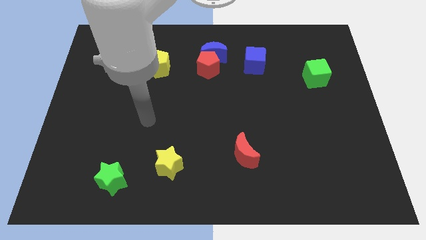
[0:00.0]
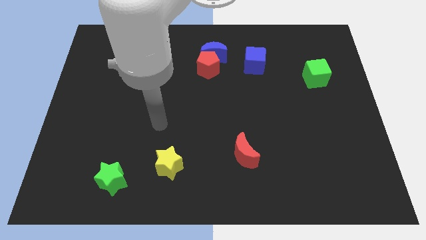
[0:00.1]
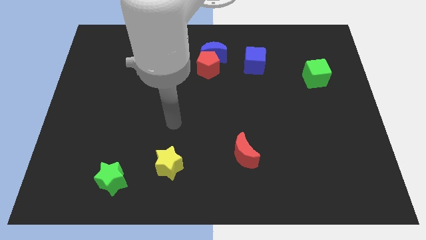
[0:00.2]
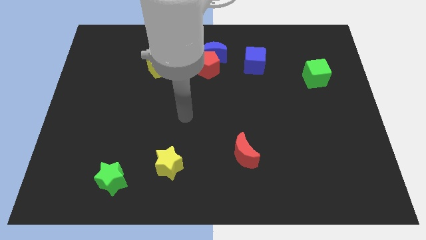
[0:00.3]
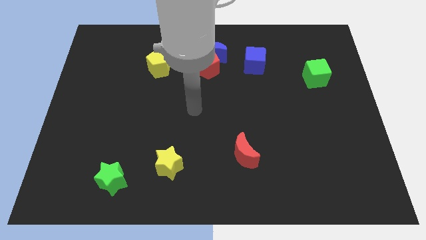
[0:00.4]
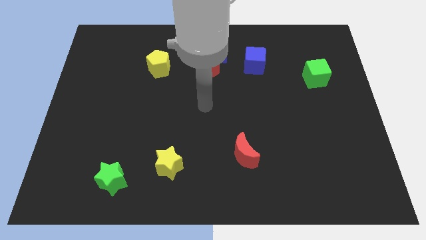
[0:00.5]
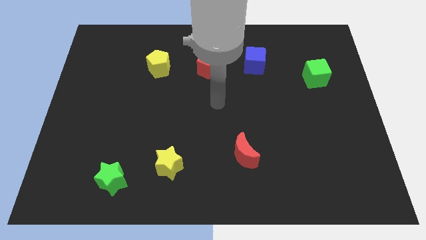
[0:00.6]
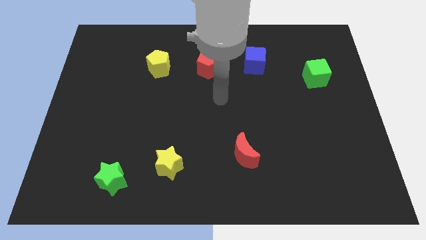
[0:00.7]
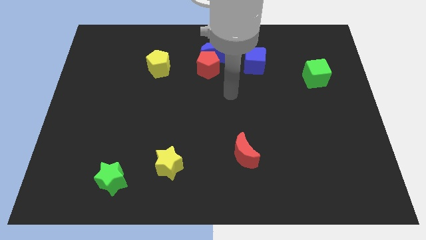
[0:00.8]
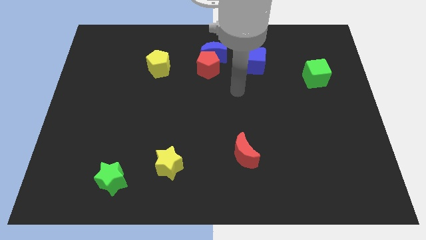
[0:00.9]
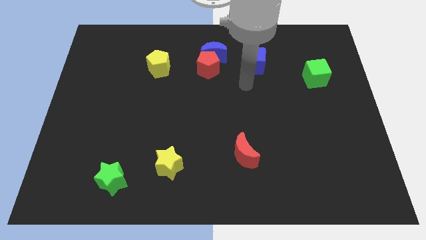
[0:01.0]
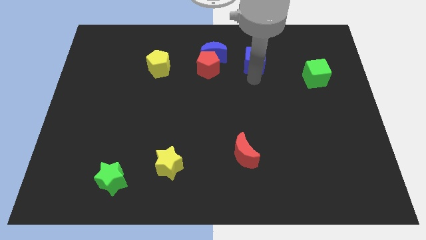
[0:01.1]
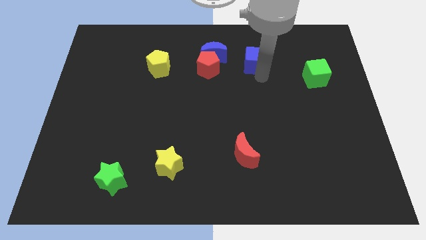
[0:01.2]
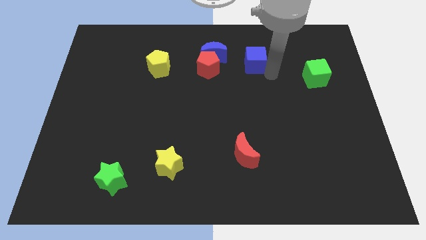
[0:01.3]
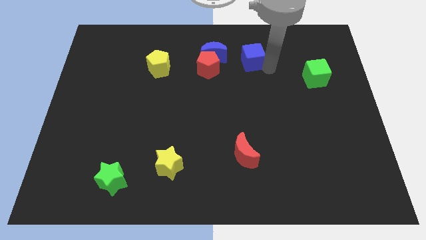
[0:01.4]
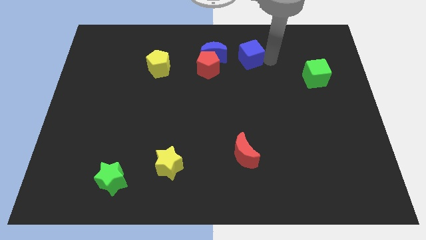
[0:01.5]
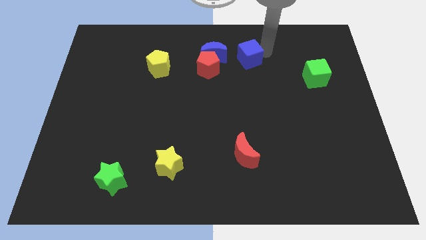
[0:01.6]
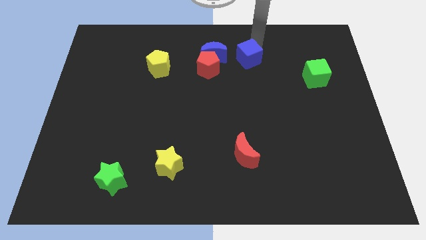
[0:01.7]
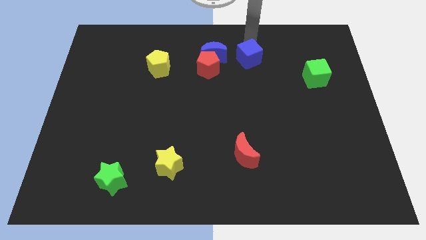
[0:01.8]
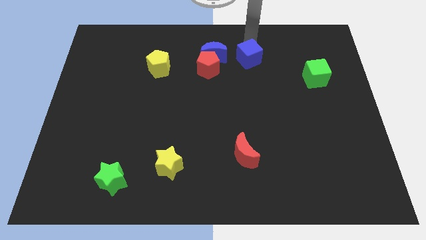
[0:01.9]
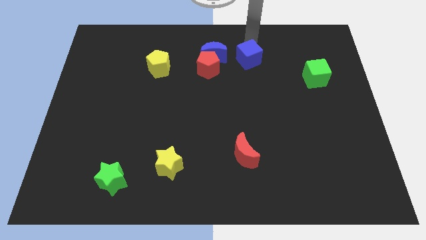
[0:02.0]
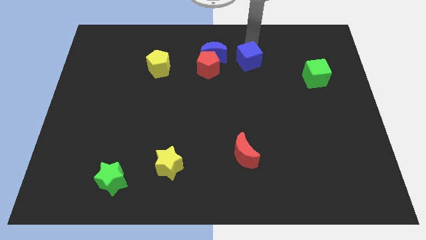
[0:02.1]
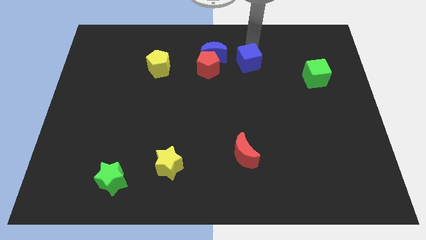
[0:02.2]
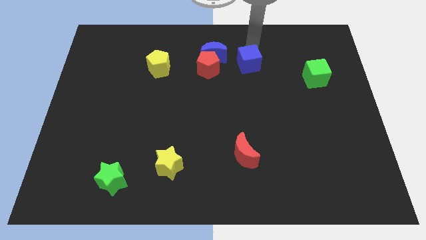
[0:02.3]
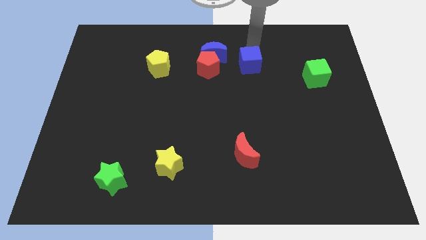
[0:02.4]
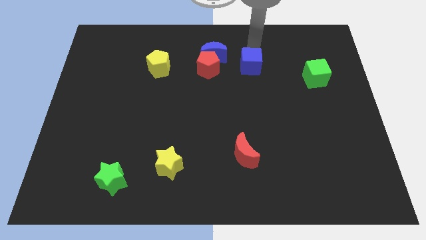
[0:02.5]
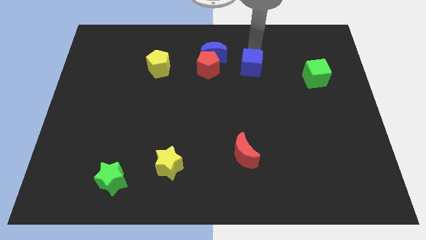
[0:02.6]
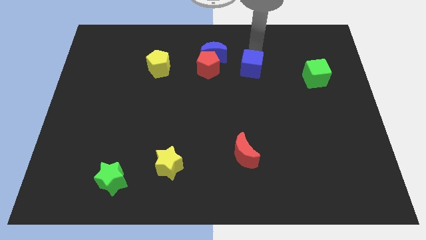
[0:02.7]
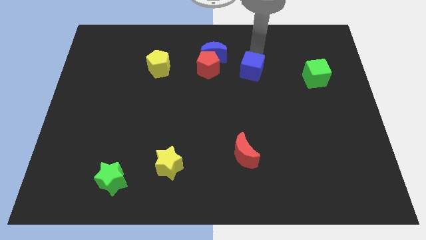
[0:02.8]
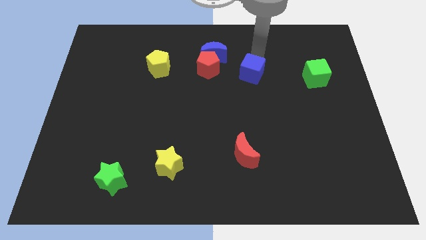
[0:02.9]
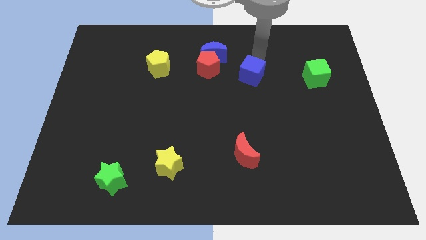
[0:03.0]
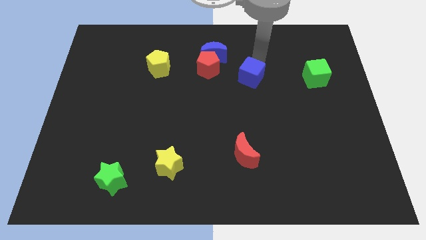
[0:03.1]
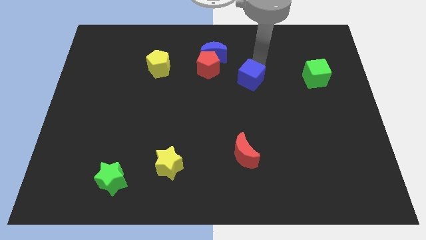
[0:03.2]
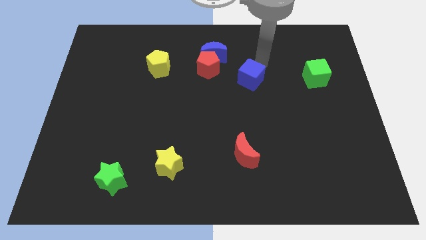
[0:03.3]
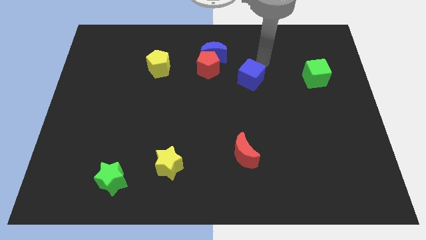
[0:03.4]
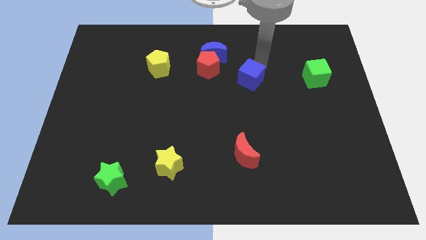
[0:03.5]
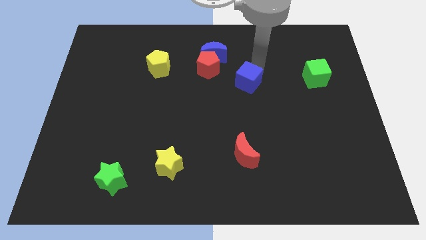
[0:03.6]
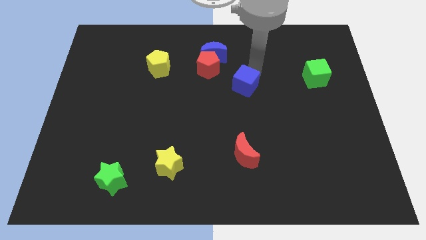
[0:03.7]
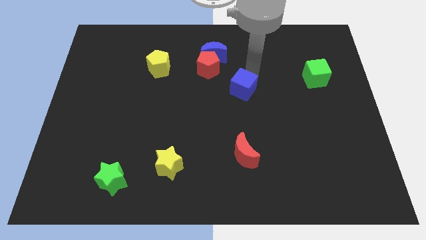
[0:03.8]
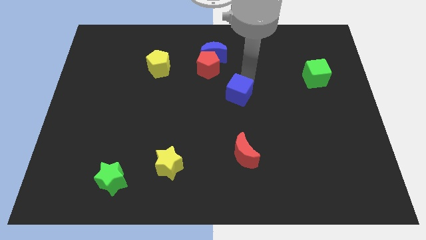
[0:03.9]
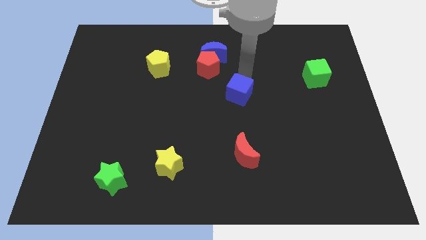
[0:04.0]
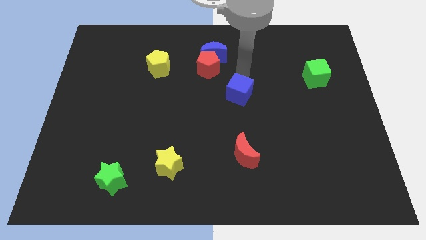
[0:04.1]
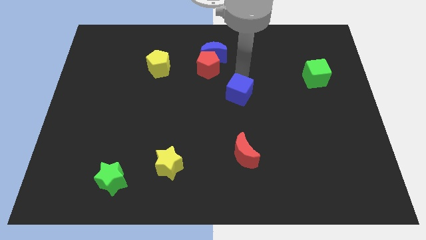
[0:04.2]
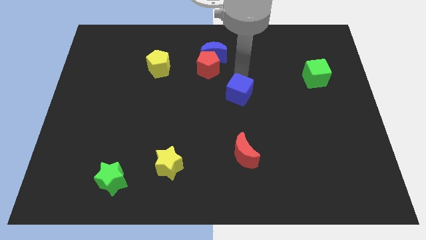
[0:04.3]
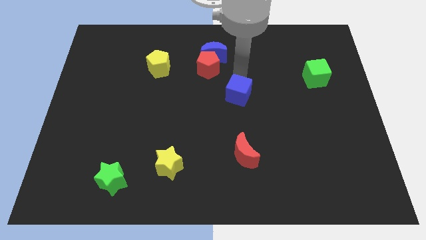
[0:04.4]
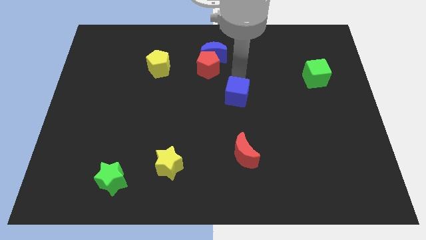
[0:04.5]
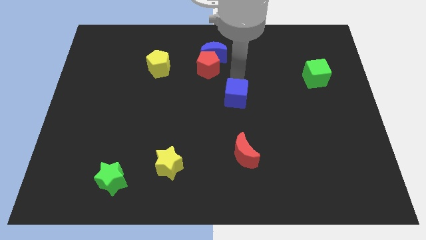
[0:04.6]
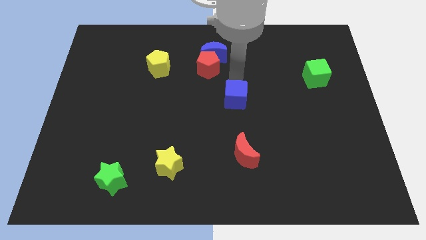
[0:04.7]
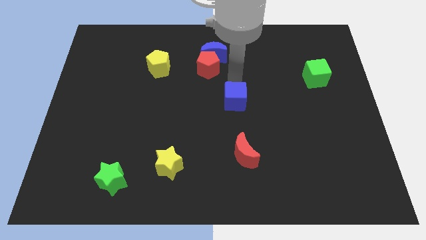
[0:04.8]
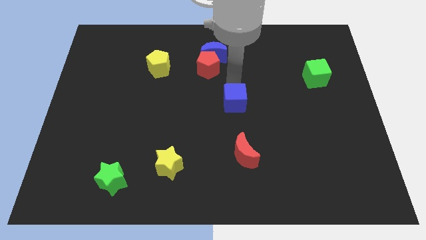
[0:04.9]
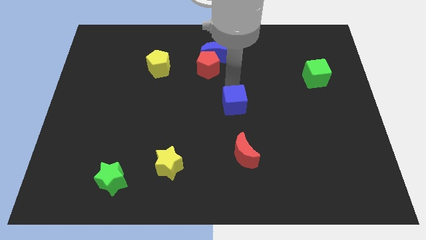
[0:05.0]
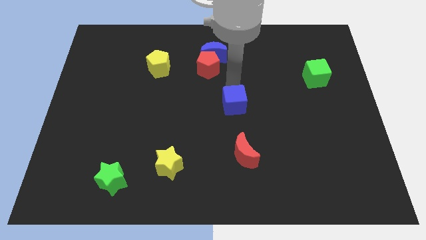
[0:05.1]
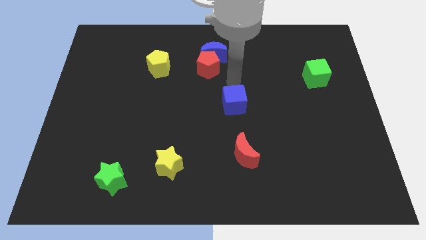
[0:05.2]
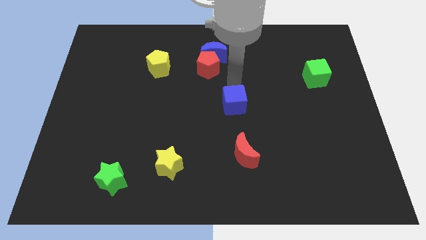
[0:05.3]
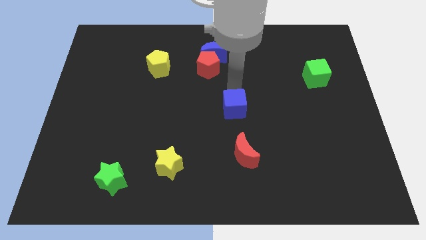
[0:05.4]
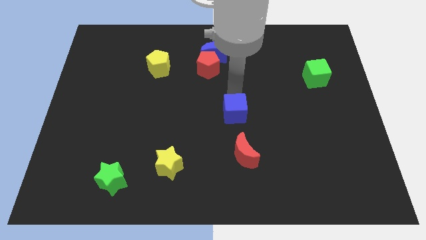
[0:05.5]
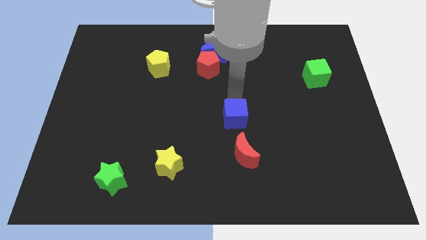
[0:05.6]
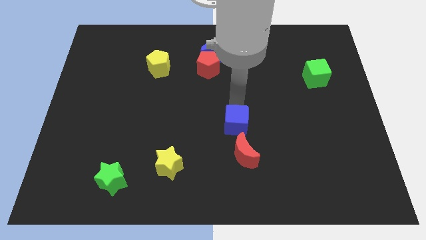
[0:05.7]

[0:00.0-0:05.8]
slide the blue cube diagonally up and to the left of the red moon

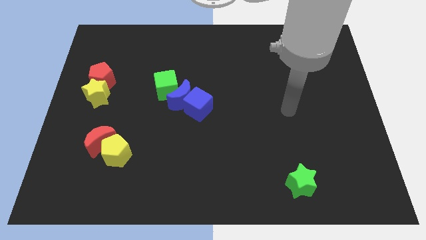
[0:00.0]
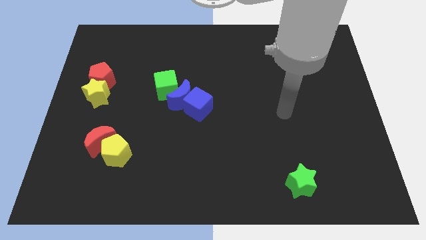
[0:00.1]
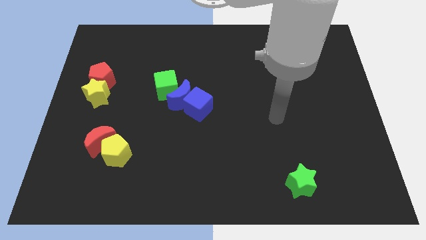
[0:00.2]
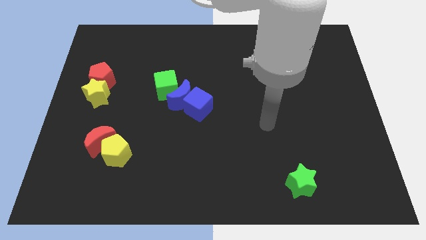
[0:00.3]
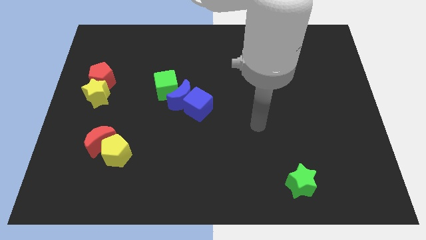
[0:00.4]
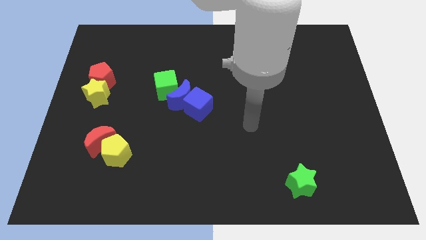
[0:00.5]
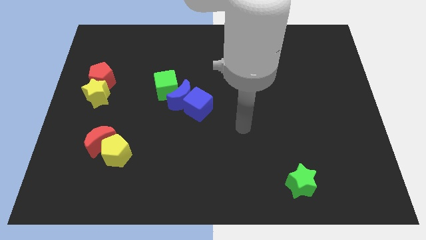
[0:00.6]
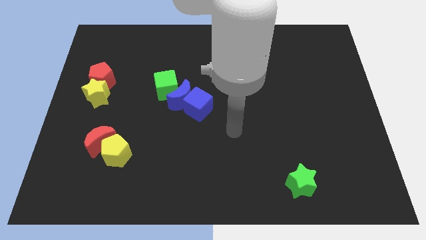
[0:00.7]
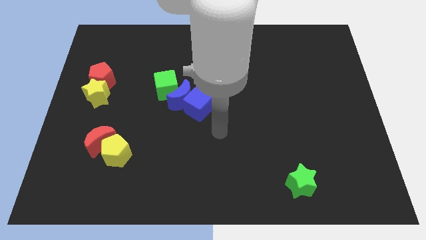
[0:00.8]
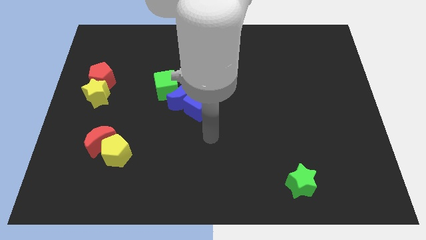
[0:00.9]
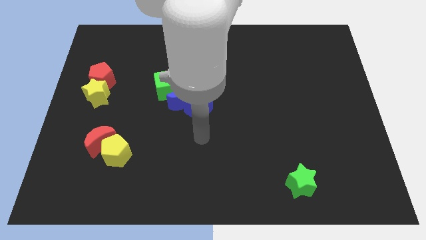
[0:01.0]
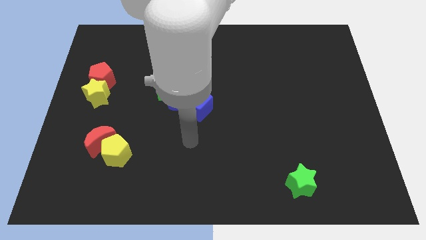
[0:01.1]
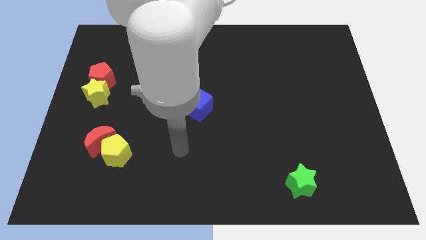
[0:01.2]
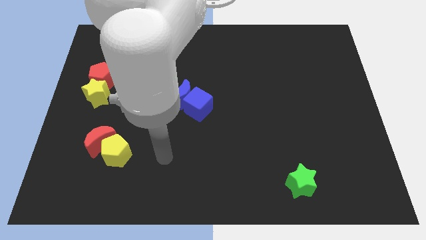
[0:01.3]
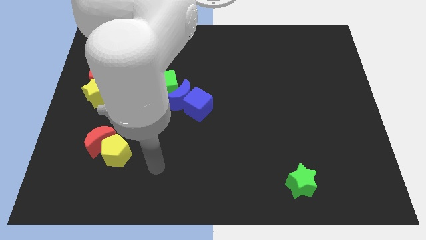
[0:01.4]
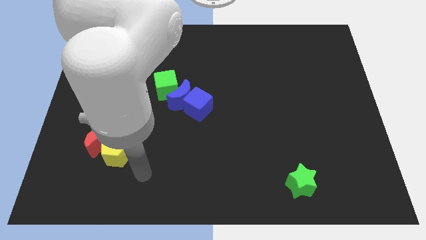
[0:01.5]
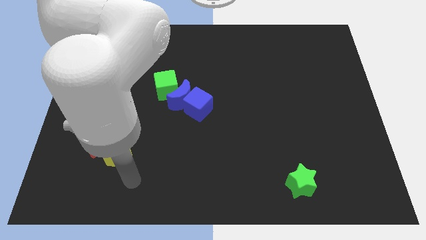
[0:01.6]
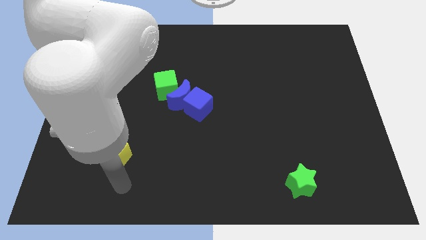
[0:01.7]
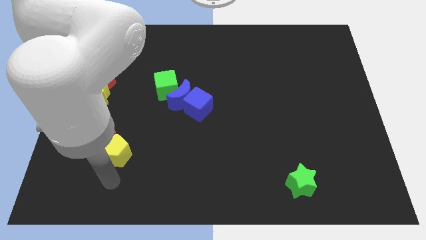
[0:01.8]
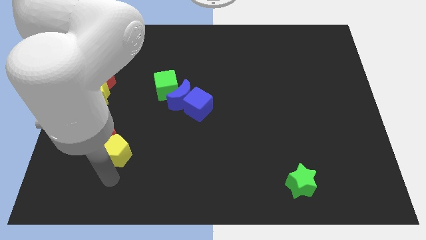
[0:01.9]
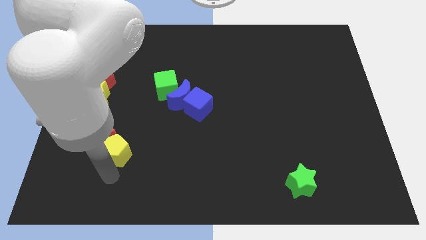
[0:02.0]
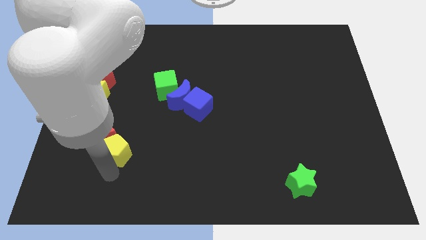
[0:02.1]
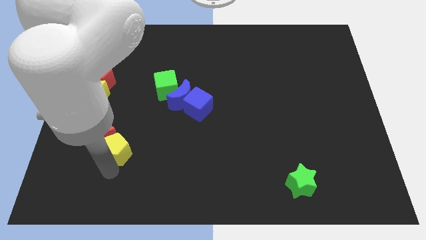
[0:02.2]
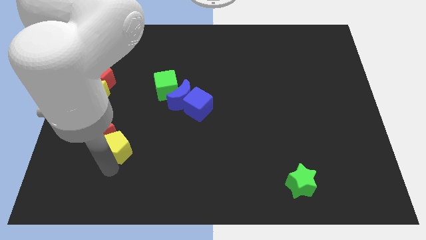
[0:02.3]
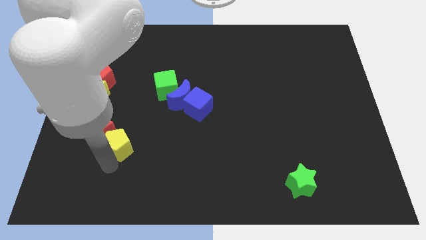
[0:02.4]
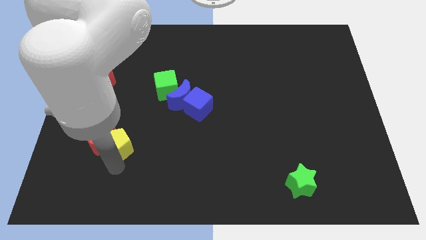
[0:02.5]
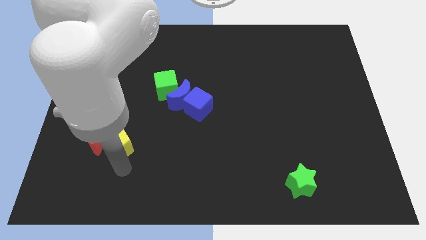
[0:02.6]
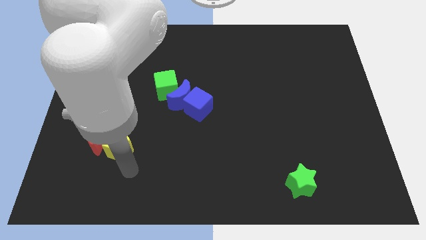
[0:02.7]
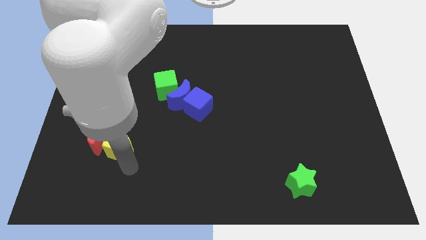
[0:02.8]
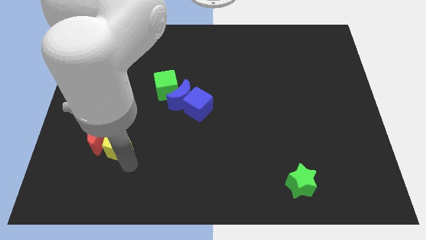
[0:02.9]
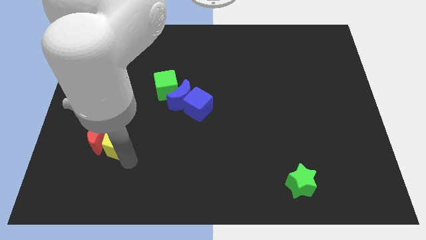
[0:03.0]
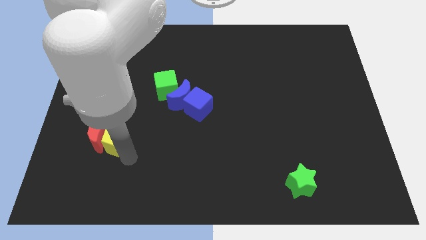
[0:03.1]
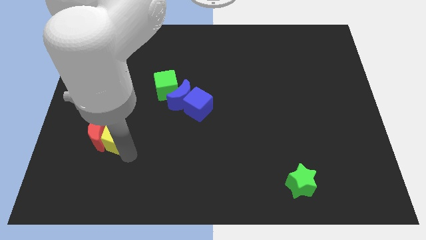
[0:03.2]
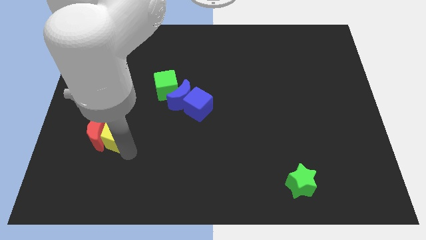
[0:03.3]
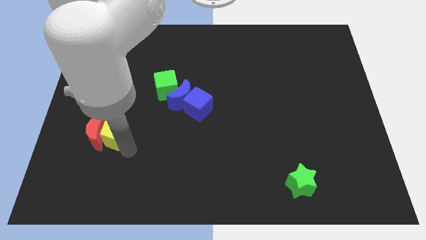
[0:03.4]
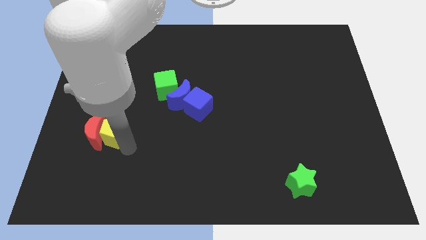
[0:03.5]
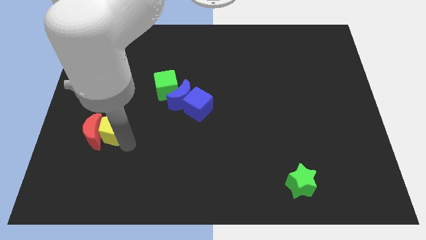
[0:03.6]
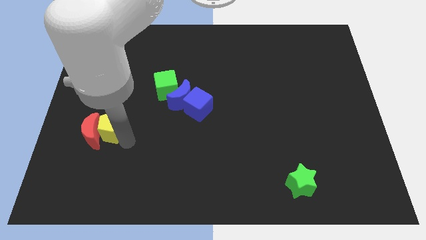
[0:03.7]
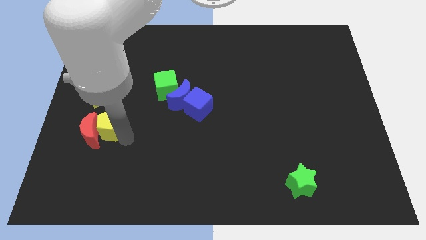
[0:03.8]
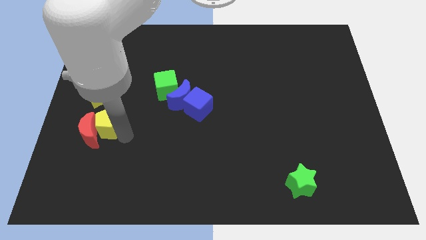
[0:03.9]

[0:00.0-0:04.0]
move the yellow pentagon to the bottom of the red pentagon
